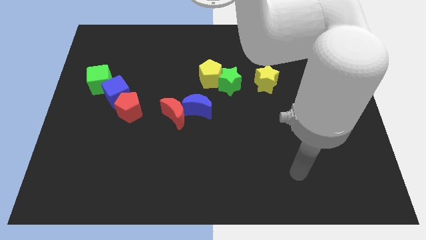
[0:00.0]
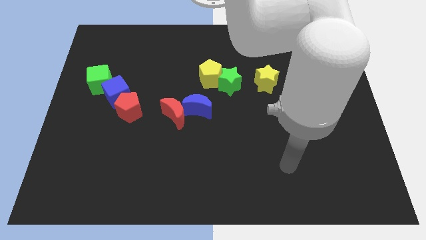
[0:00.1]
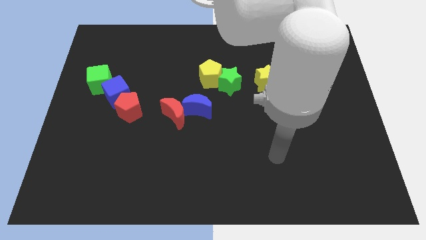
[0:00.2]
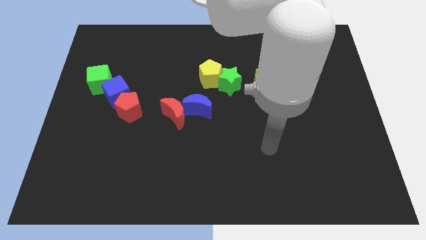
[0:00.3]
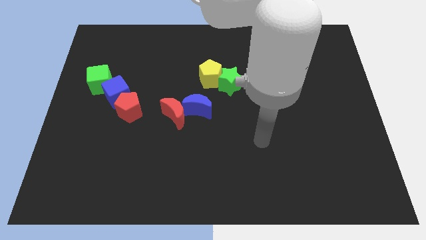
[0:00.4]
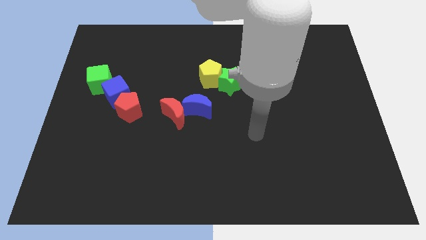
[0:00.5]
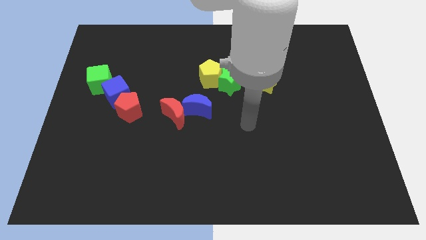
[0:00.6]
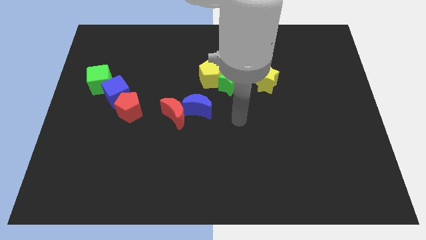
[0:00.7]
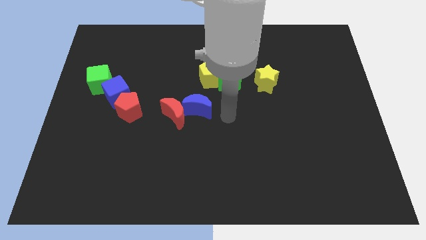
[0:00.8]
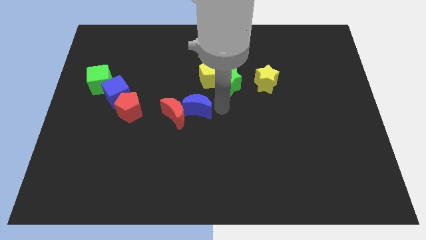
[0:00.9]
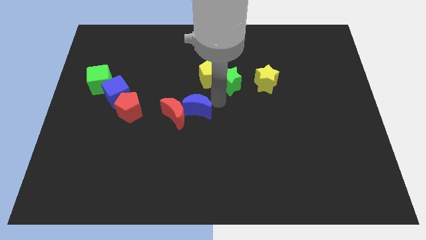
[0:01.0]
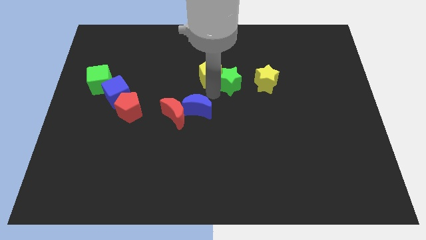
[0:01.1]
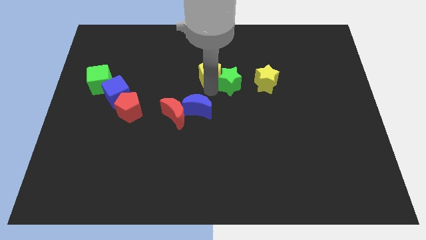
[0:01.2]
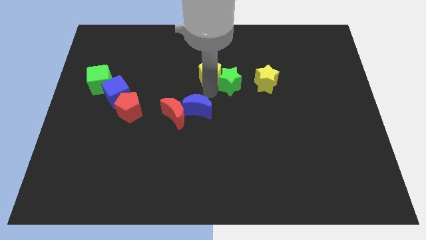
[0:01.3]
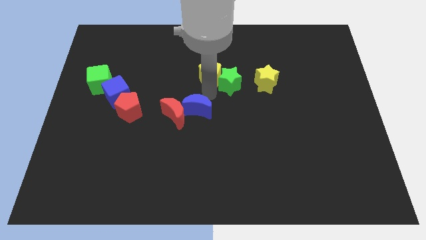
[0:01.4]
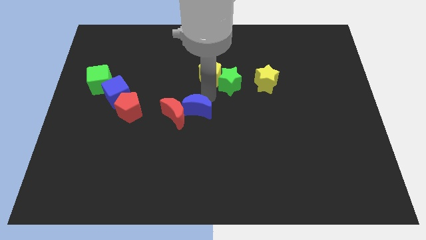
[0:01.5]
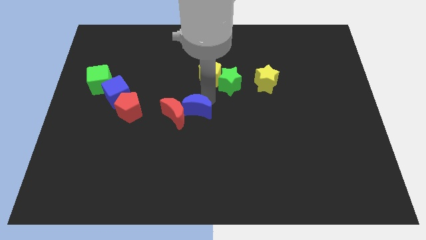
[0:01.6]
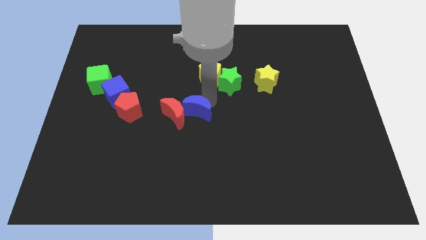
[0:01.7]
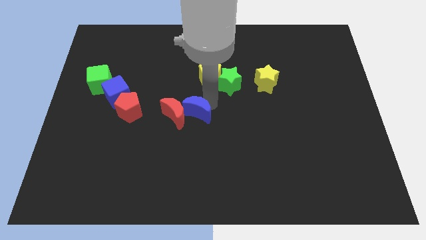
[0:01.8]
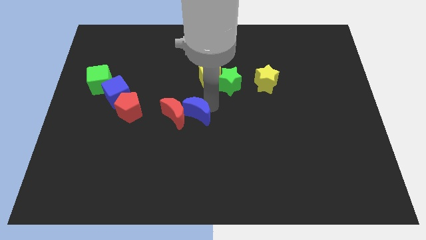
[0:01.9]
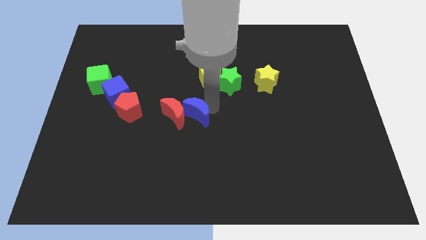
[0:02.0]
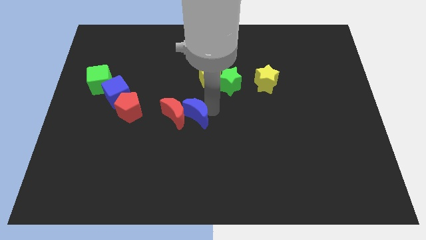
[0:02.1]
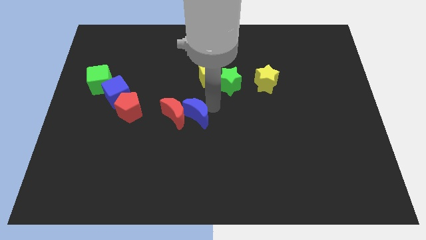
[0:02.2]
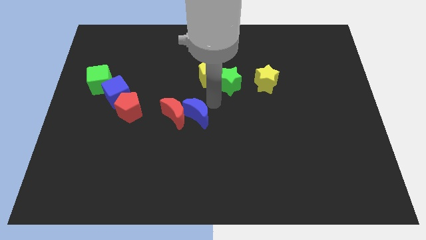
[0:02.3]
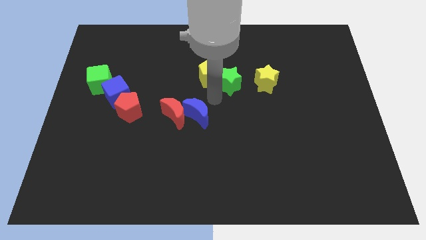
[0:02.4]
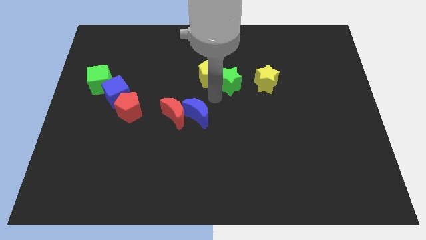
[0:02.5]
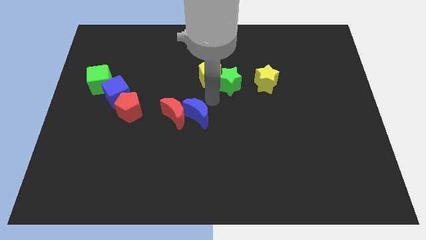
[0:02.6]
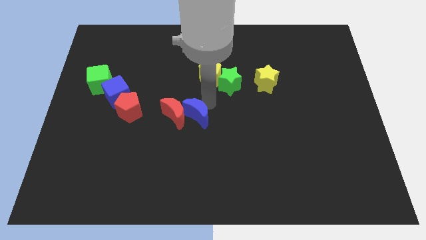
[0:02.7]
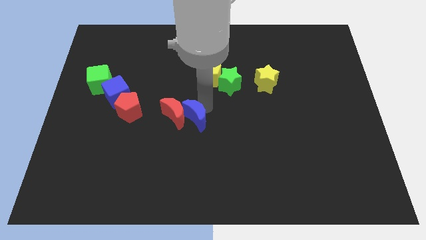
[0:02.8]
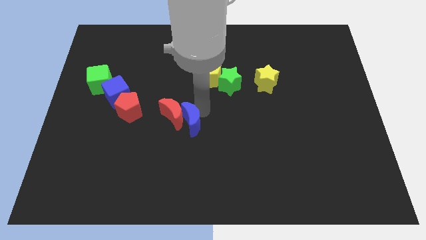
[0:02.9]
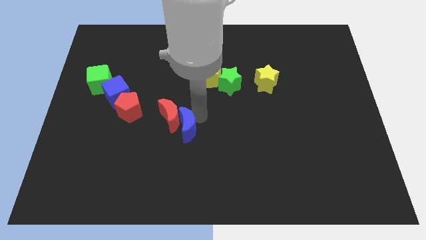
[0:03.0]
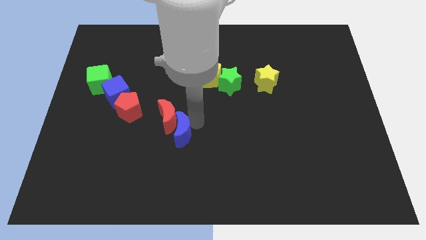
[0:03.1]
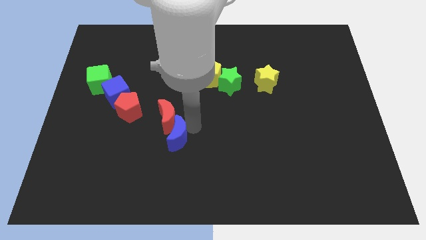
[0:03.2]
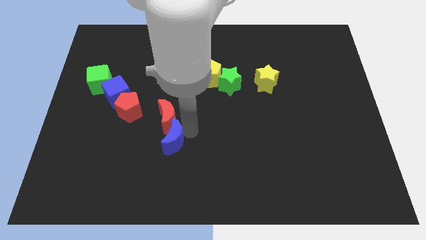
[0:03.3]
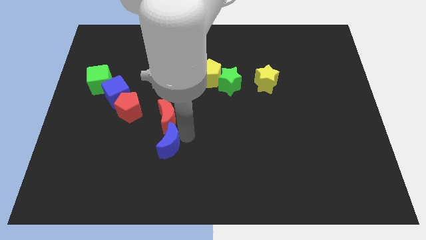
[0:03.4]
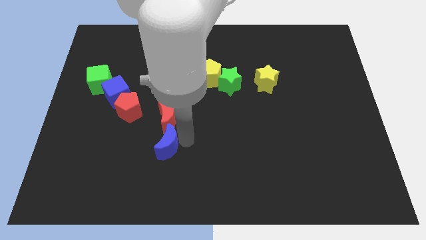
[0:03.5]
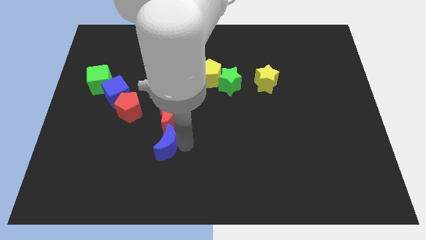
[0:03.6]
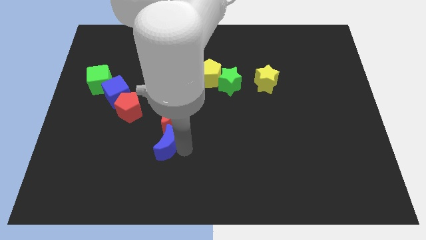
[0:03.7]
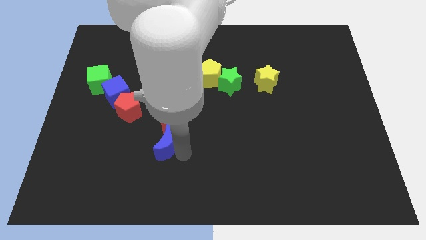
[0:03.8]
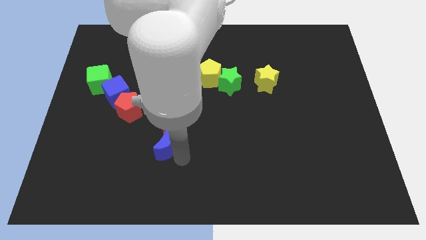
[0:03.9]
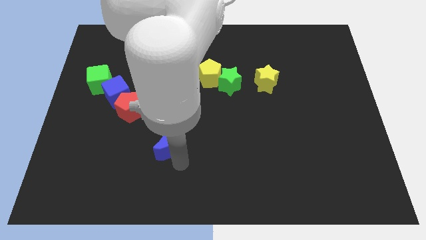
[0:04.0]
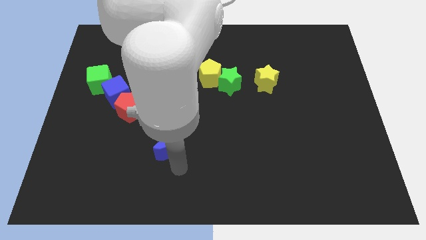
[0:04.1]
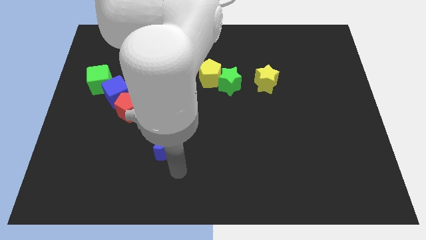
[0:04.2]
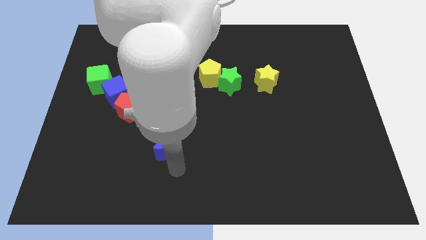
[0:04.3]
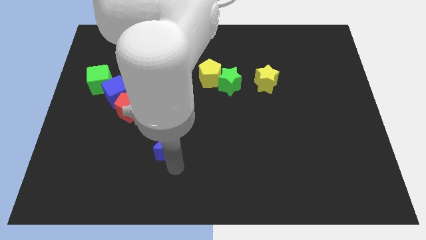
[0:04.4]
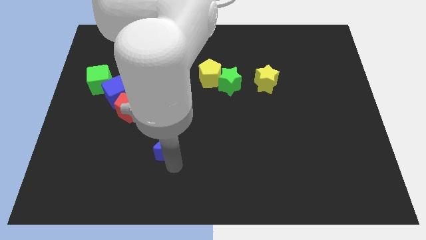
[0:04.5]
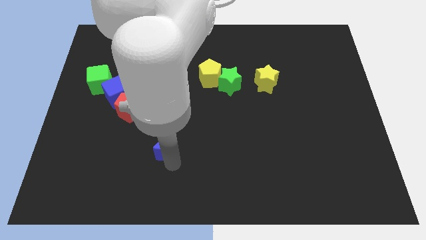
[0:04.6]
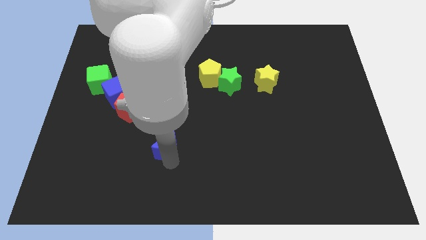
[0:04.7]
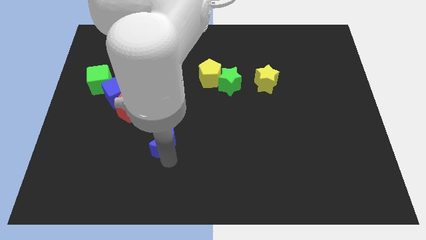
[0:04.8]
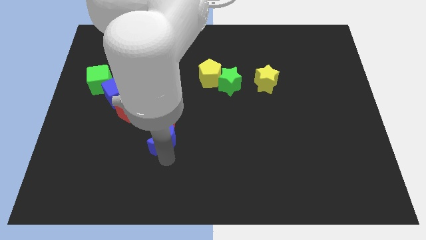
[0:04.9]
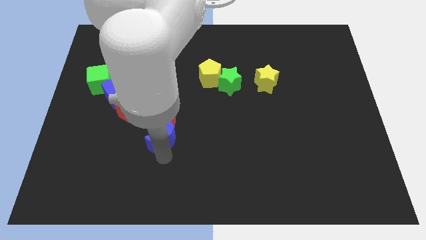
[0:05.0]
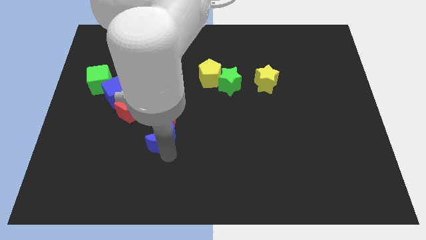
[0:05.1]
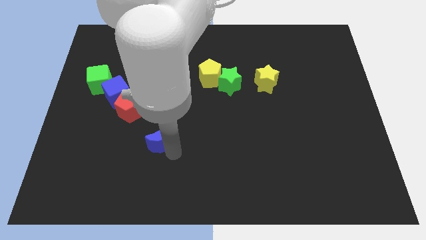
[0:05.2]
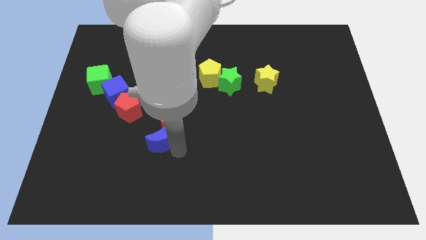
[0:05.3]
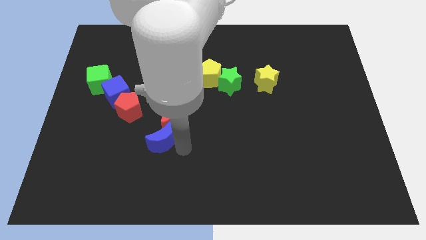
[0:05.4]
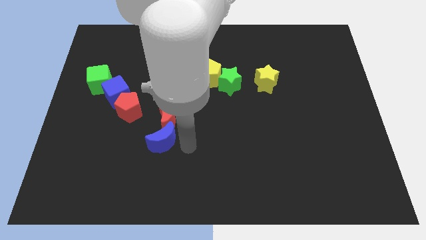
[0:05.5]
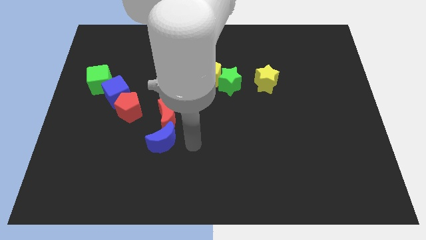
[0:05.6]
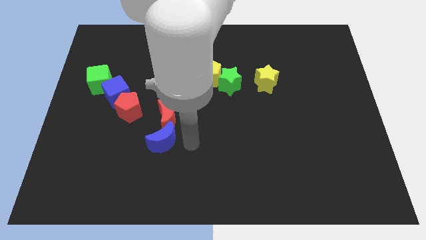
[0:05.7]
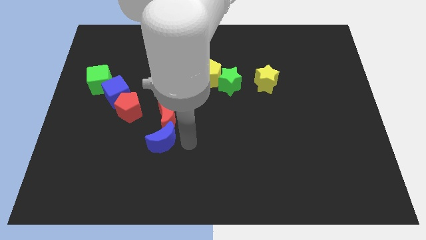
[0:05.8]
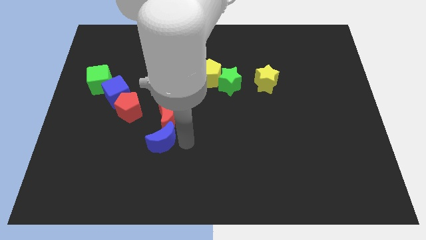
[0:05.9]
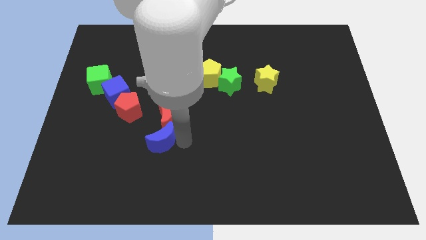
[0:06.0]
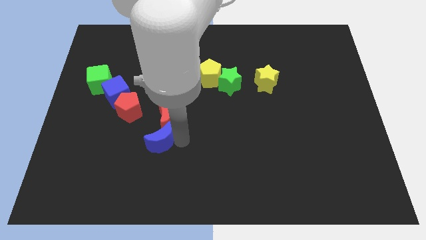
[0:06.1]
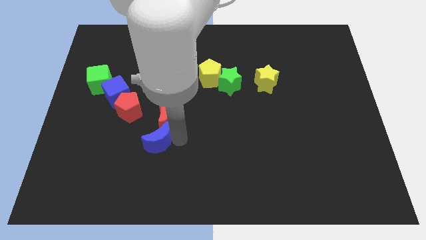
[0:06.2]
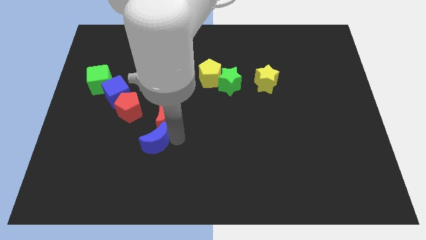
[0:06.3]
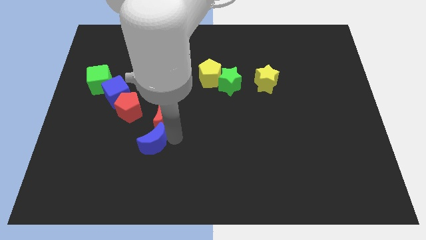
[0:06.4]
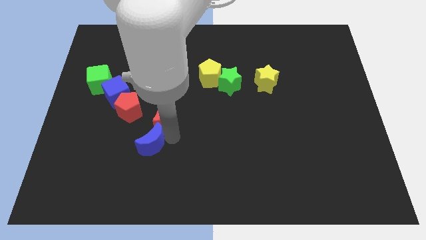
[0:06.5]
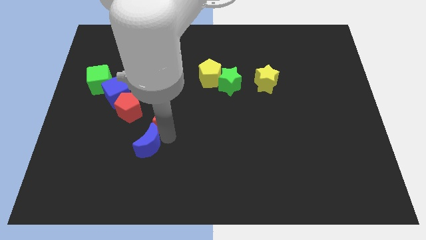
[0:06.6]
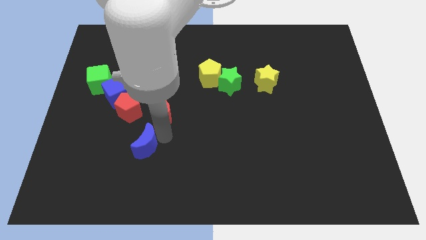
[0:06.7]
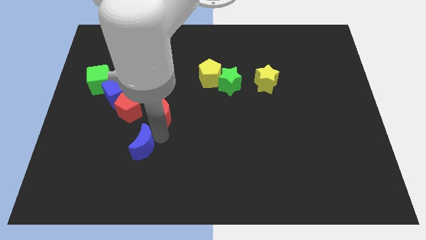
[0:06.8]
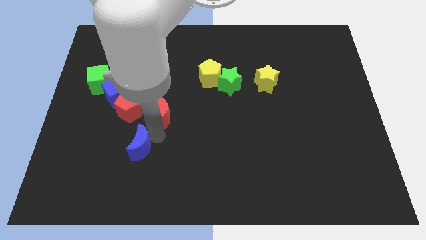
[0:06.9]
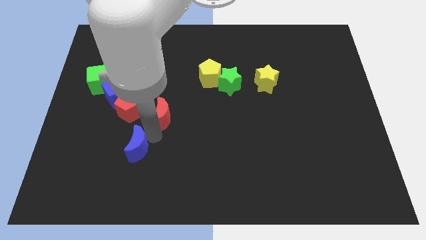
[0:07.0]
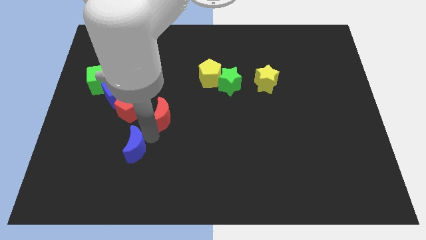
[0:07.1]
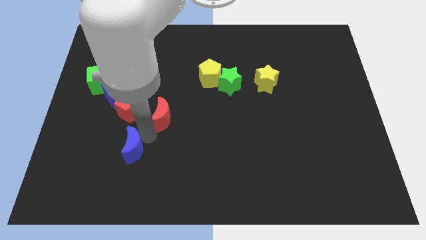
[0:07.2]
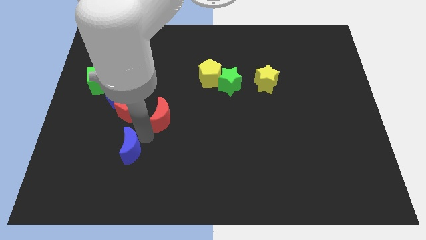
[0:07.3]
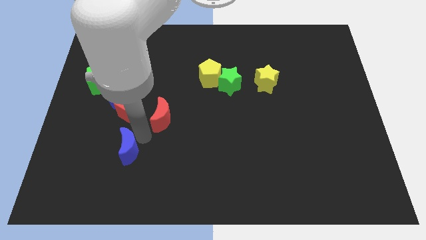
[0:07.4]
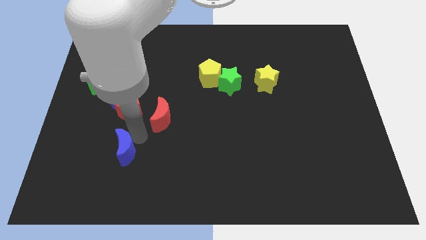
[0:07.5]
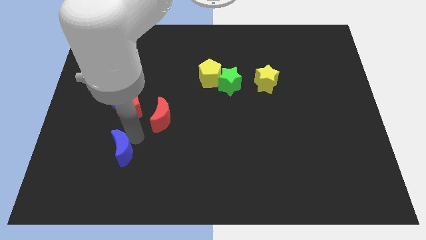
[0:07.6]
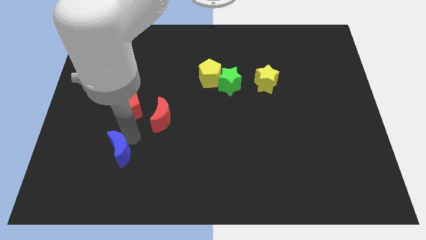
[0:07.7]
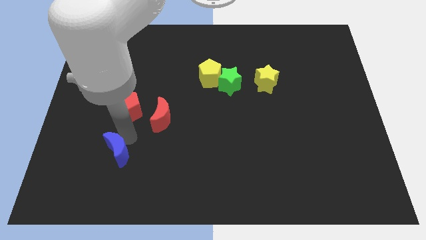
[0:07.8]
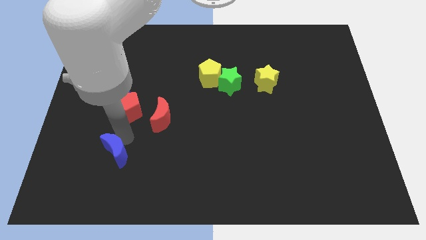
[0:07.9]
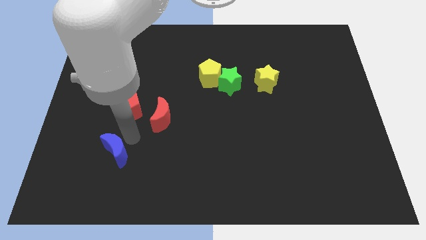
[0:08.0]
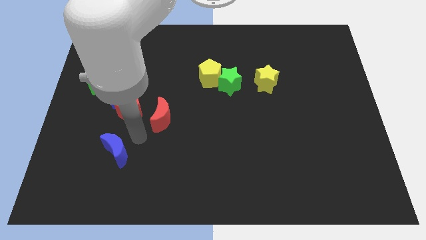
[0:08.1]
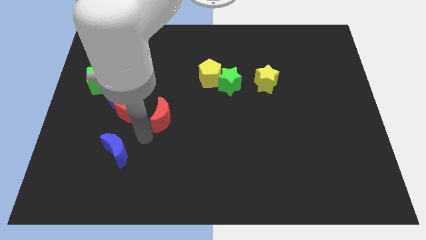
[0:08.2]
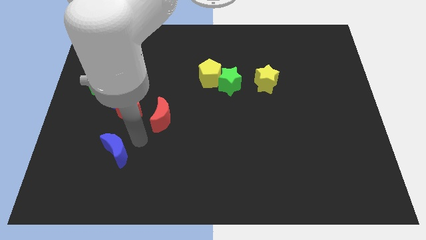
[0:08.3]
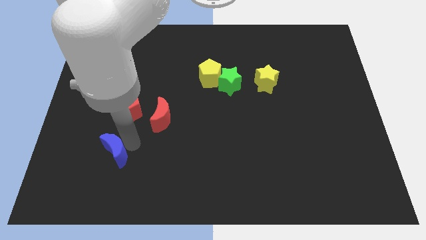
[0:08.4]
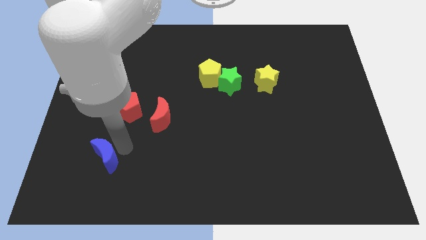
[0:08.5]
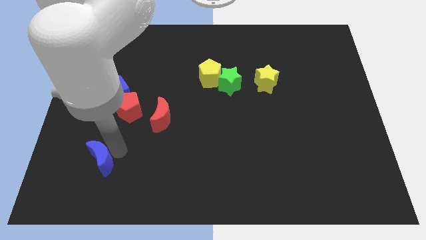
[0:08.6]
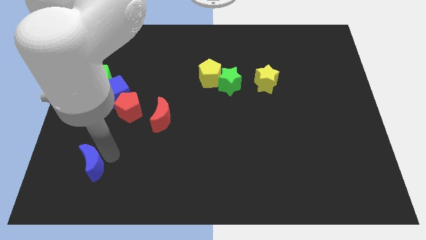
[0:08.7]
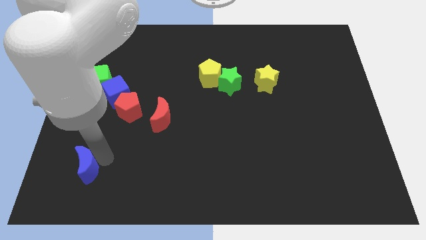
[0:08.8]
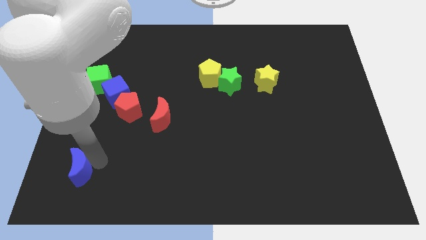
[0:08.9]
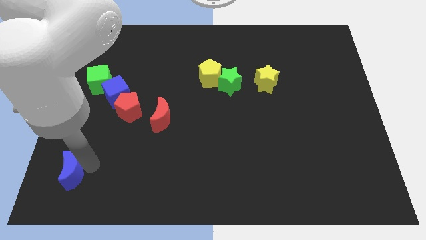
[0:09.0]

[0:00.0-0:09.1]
put the blue moon to the bottom left of the board
